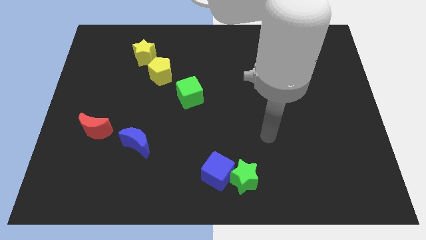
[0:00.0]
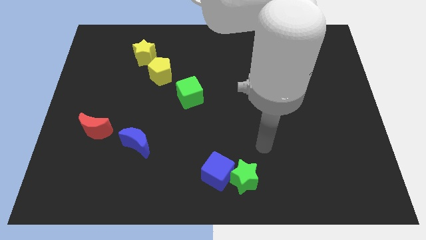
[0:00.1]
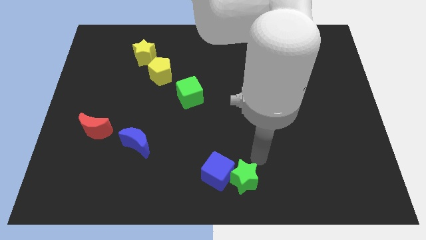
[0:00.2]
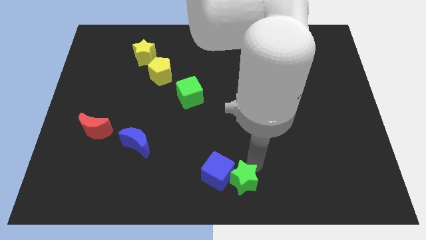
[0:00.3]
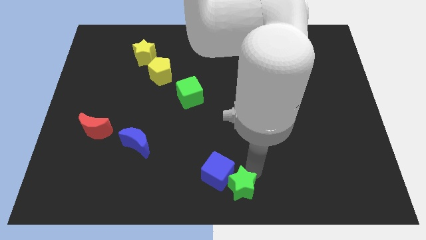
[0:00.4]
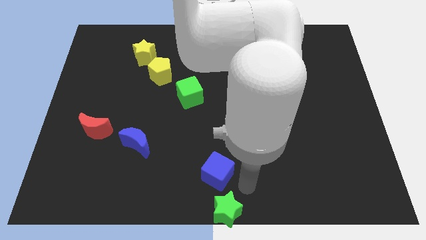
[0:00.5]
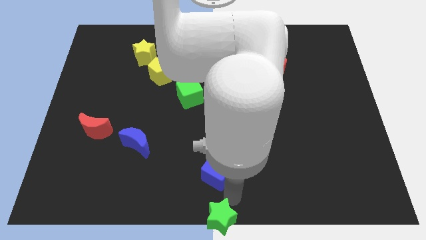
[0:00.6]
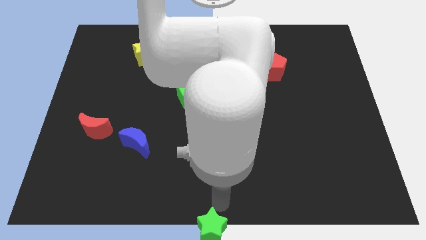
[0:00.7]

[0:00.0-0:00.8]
move the blue cube away from the green star

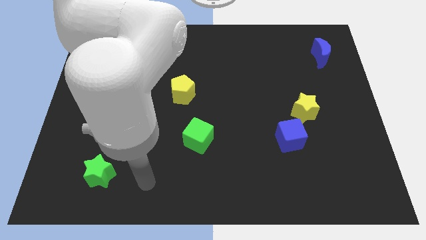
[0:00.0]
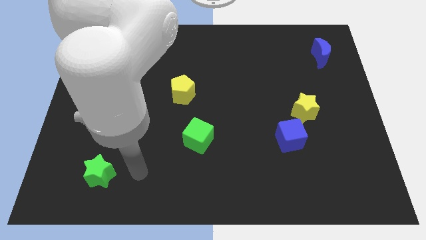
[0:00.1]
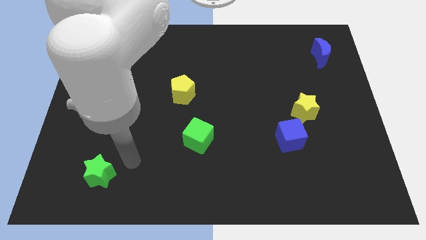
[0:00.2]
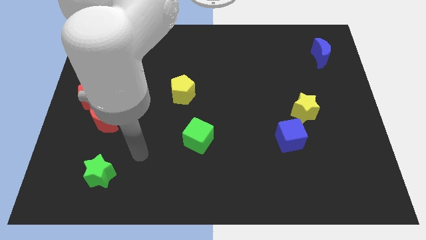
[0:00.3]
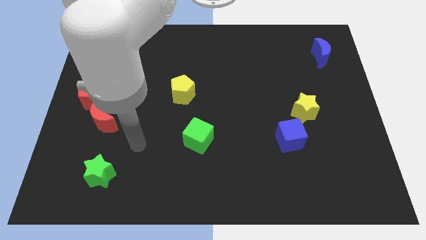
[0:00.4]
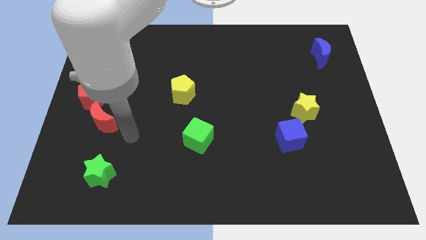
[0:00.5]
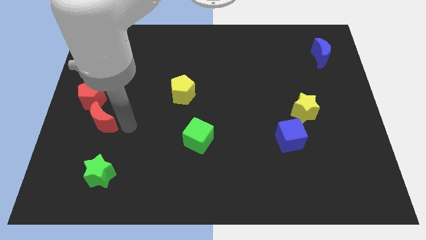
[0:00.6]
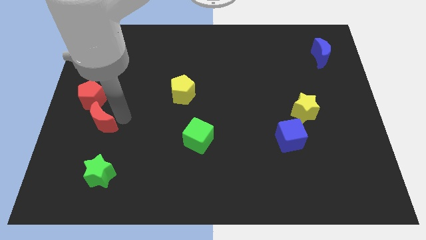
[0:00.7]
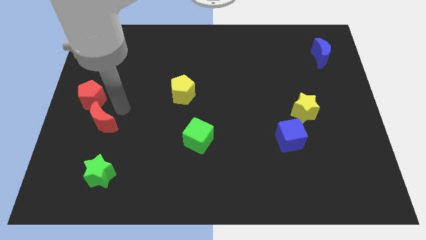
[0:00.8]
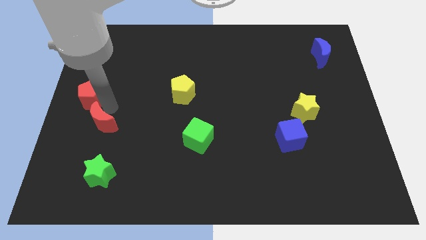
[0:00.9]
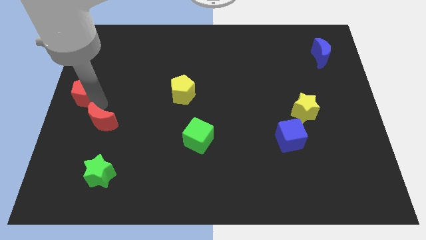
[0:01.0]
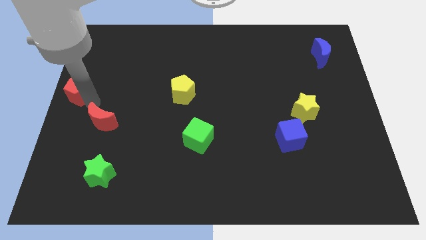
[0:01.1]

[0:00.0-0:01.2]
pull the red moon apart from the red pentagon

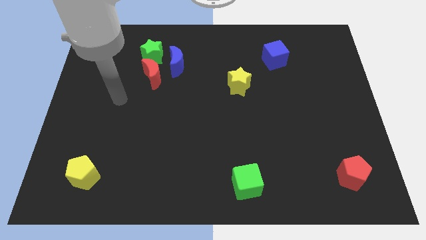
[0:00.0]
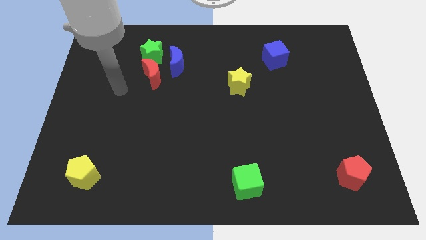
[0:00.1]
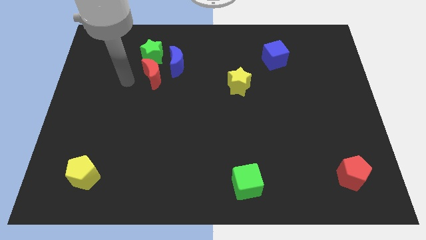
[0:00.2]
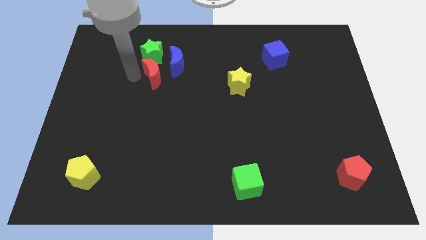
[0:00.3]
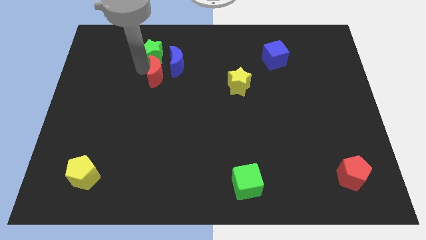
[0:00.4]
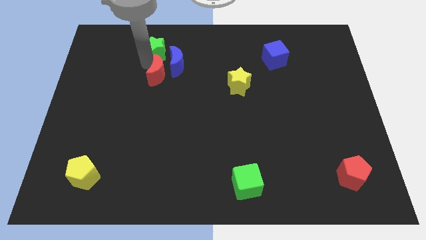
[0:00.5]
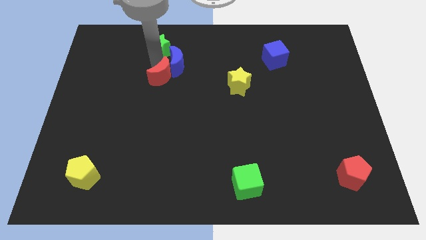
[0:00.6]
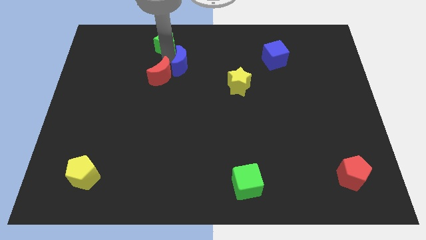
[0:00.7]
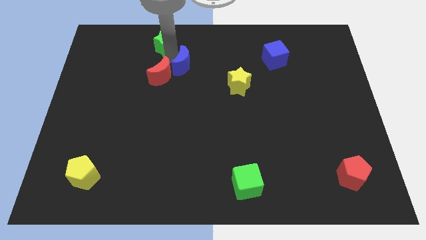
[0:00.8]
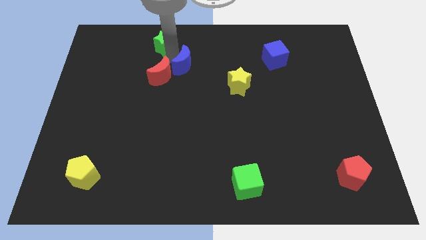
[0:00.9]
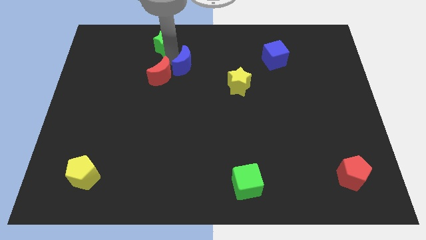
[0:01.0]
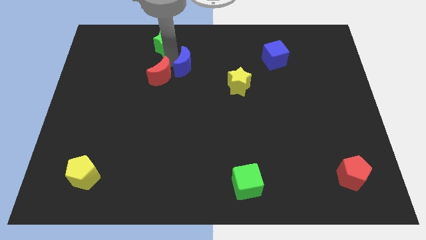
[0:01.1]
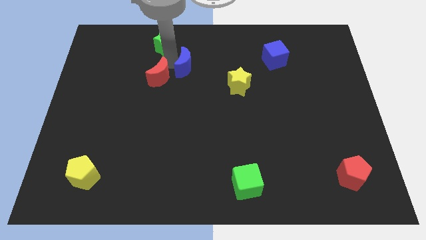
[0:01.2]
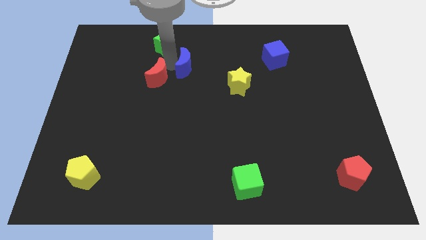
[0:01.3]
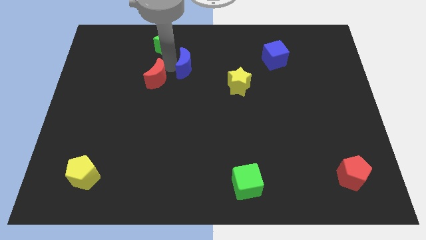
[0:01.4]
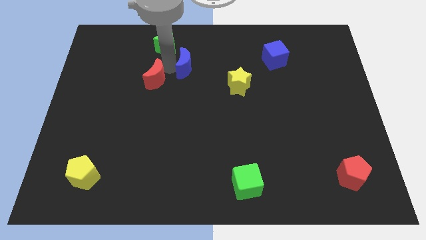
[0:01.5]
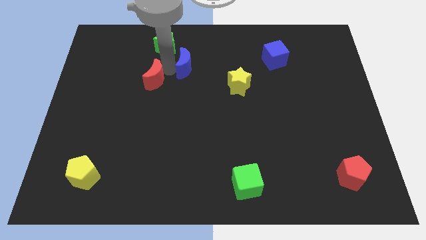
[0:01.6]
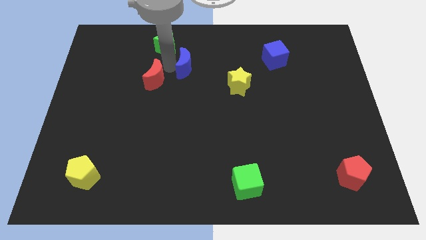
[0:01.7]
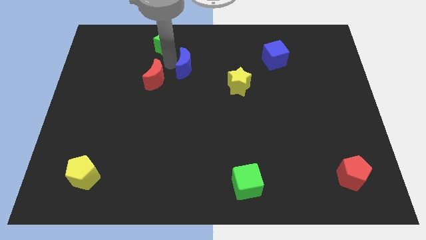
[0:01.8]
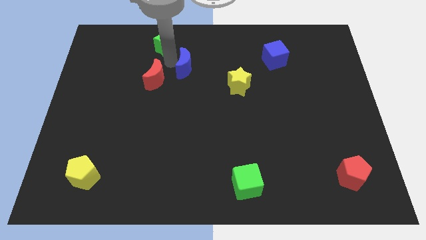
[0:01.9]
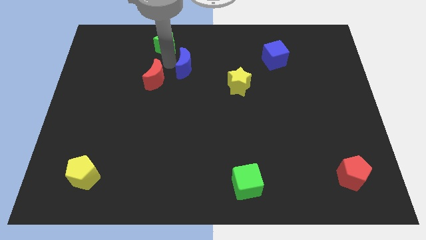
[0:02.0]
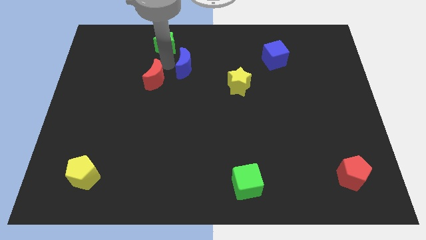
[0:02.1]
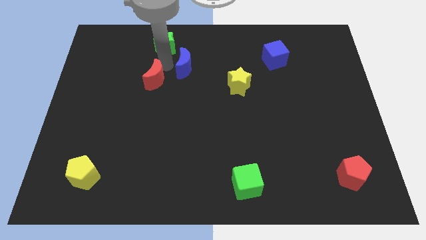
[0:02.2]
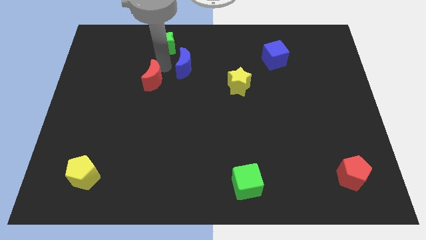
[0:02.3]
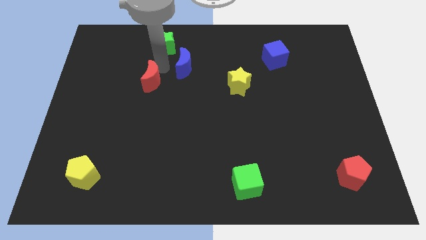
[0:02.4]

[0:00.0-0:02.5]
separate the red moon from the blue moon and green star

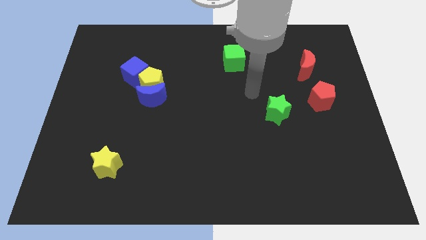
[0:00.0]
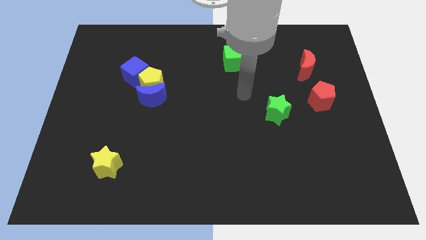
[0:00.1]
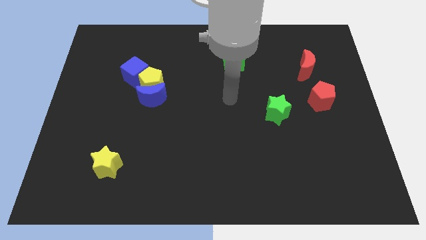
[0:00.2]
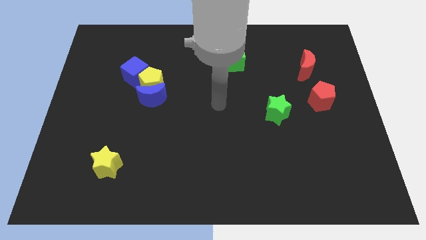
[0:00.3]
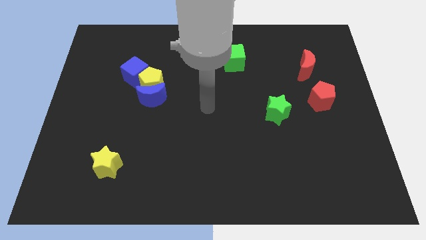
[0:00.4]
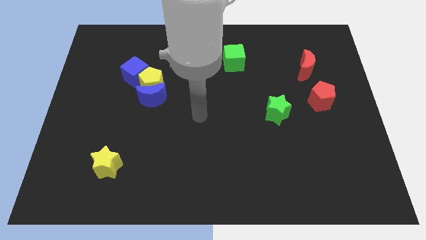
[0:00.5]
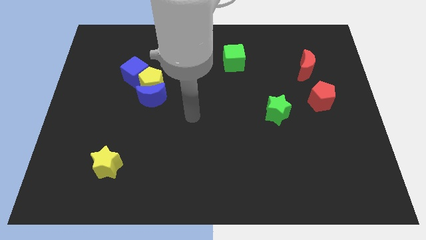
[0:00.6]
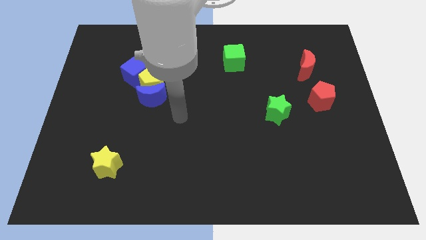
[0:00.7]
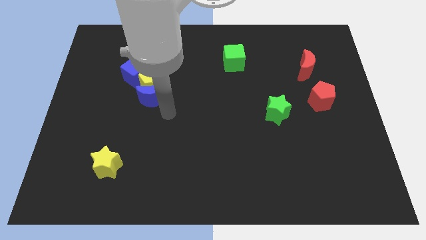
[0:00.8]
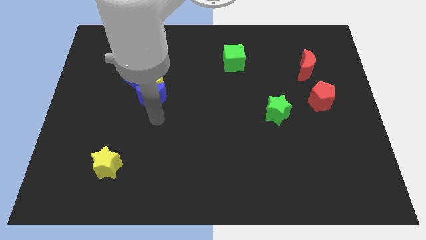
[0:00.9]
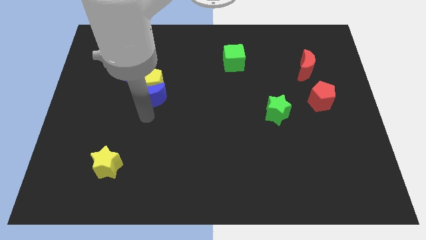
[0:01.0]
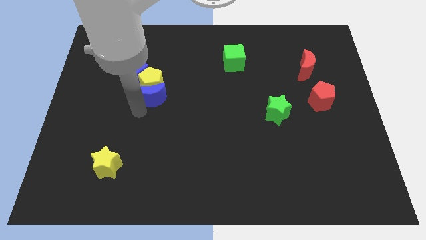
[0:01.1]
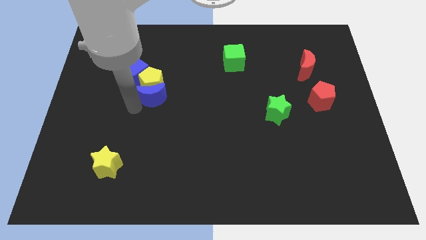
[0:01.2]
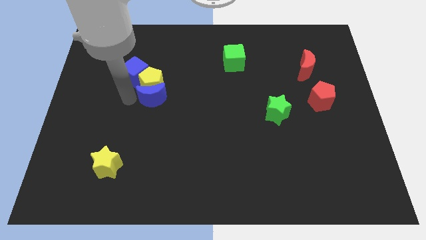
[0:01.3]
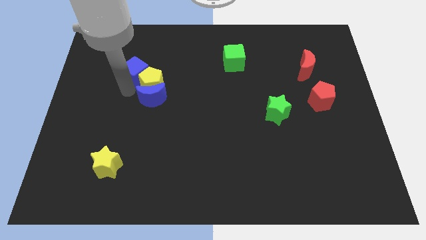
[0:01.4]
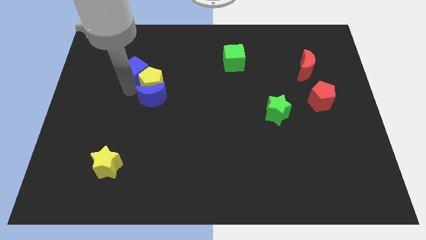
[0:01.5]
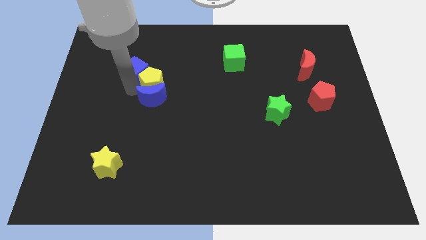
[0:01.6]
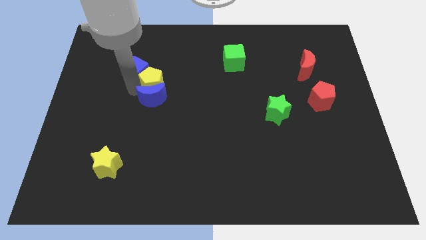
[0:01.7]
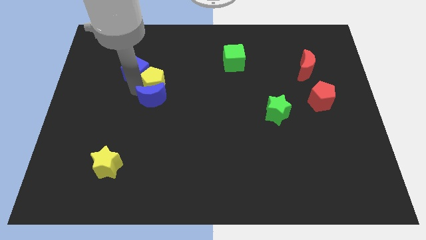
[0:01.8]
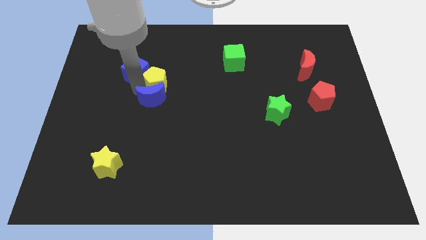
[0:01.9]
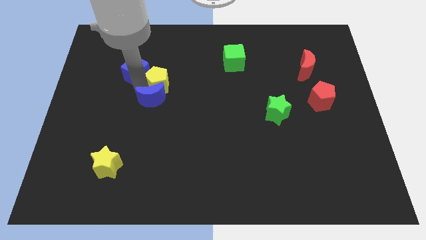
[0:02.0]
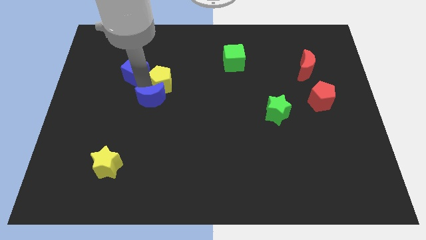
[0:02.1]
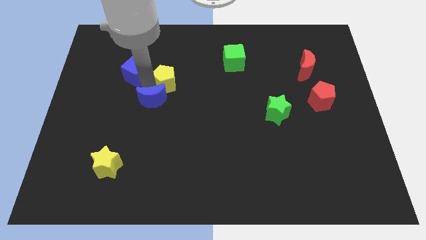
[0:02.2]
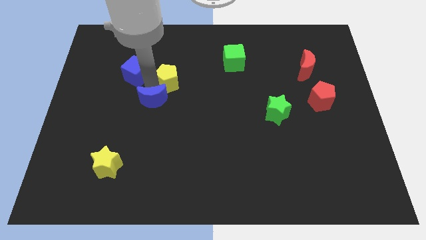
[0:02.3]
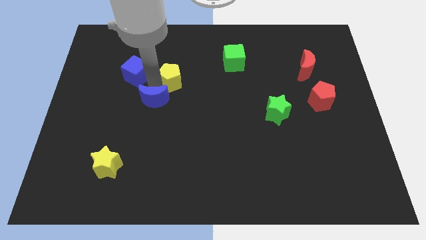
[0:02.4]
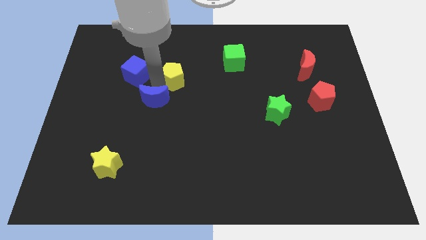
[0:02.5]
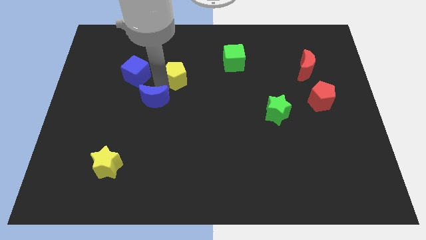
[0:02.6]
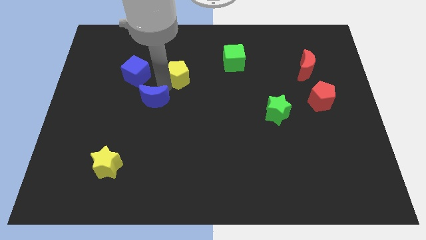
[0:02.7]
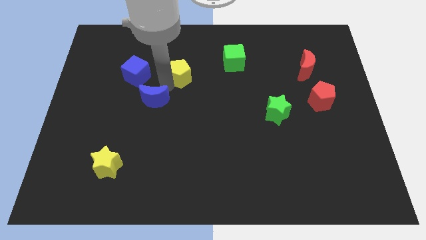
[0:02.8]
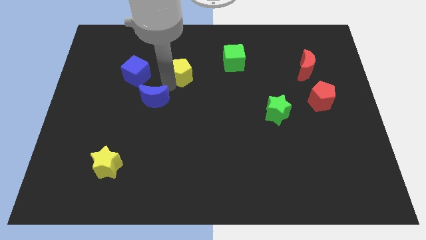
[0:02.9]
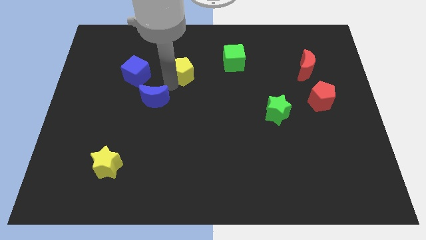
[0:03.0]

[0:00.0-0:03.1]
pull the yellow pentagon apart from the blue moon and blue cube

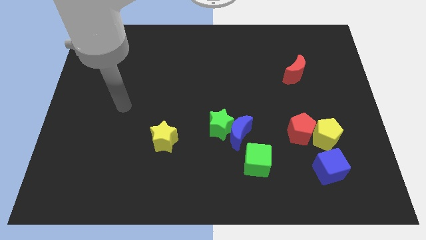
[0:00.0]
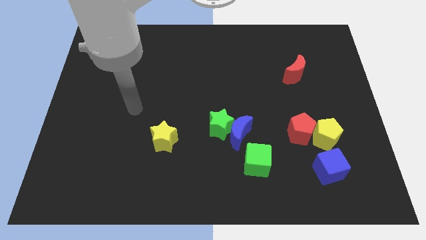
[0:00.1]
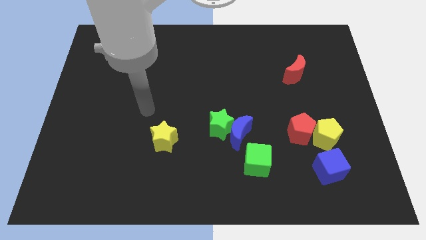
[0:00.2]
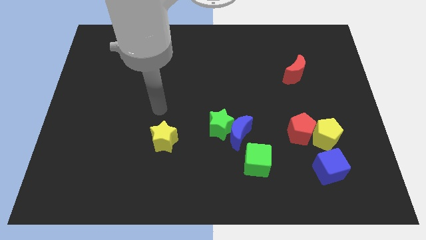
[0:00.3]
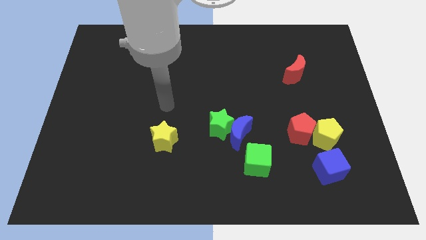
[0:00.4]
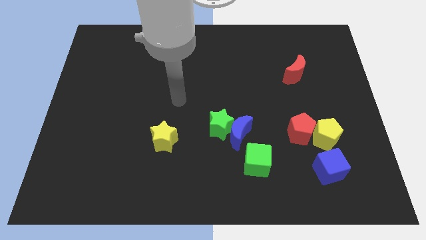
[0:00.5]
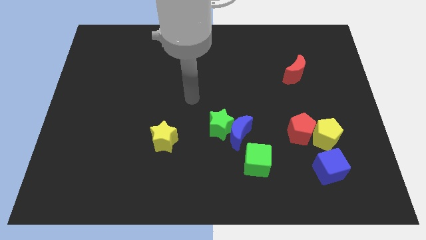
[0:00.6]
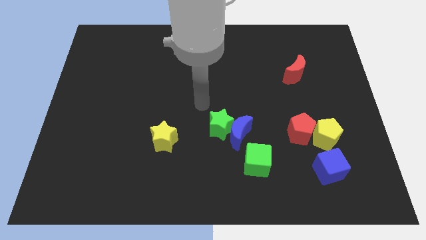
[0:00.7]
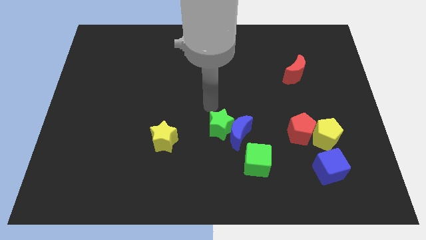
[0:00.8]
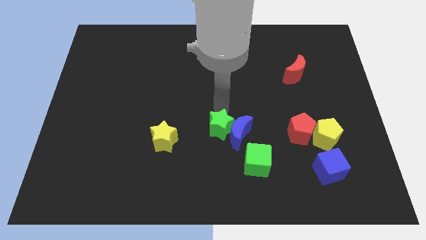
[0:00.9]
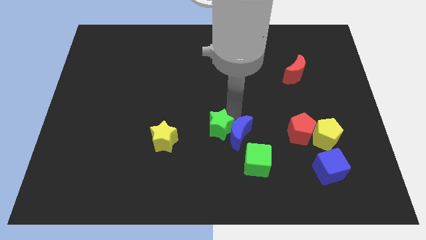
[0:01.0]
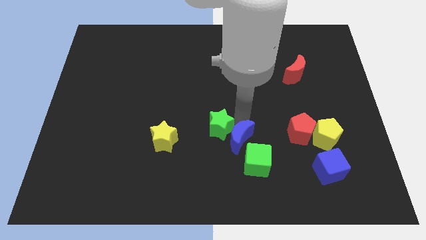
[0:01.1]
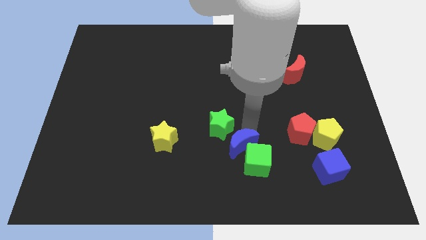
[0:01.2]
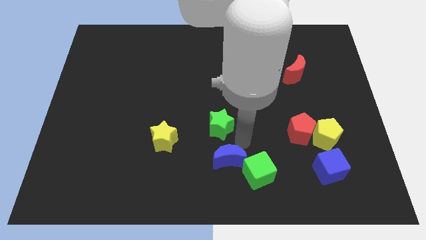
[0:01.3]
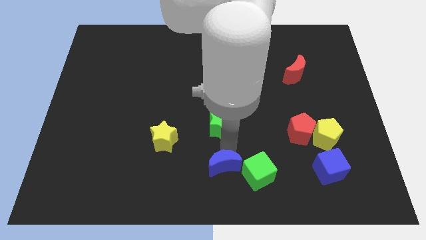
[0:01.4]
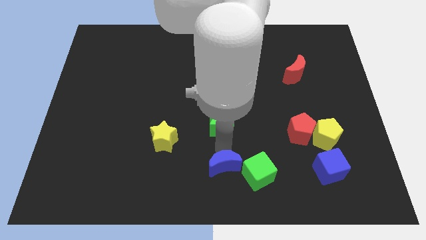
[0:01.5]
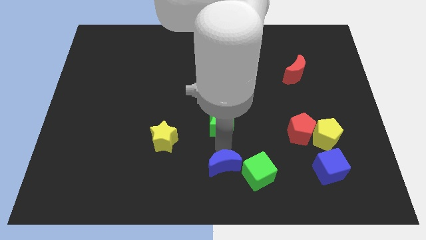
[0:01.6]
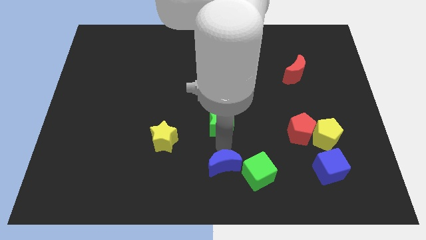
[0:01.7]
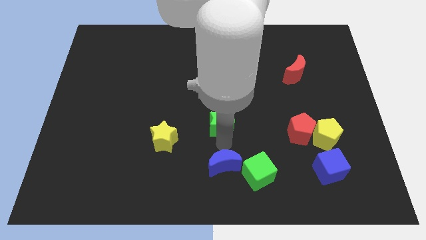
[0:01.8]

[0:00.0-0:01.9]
move the green star away from the blue moon
